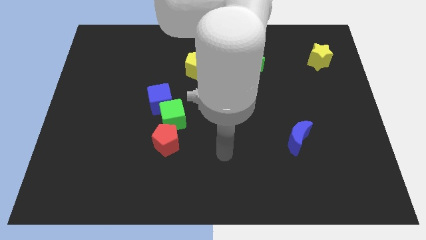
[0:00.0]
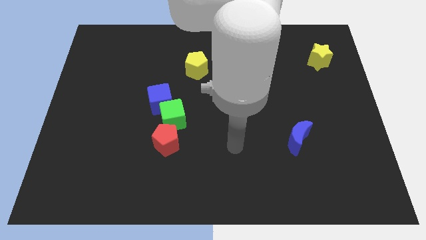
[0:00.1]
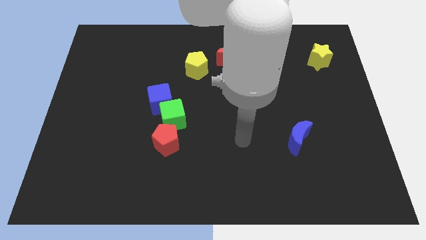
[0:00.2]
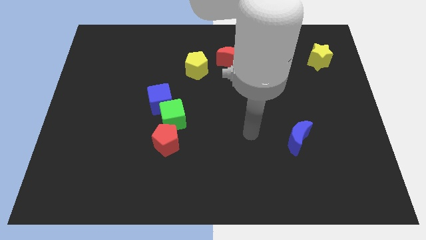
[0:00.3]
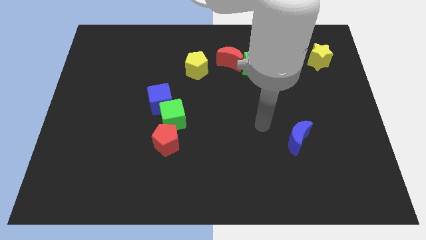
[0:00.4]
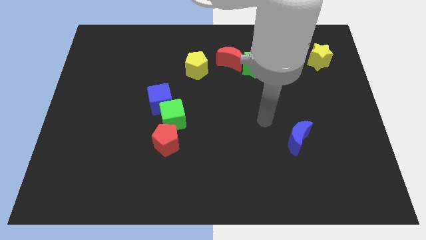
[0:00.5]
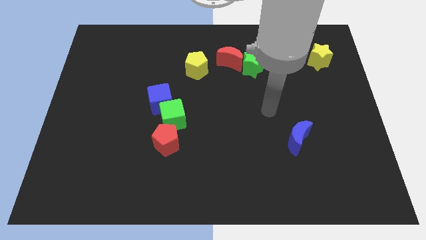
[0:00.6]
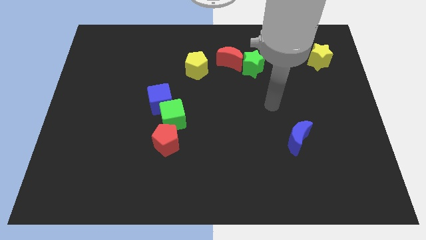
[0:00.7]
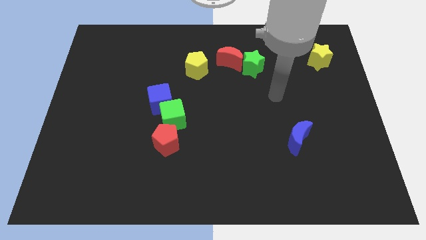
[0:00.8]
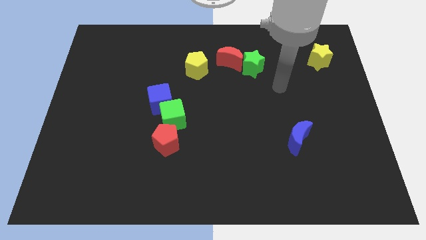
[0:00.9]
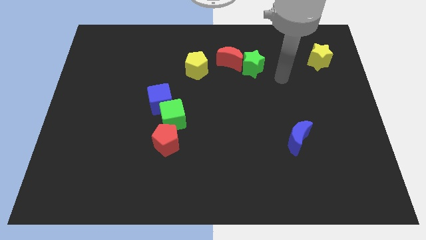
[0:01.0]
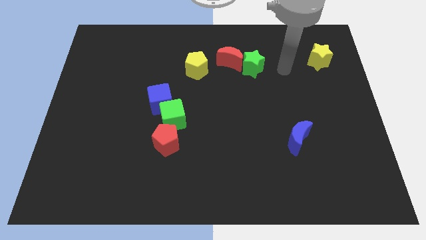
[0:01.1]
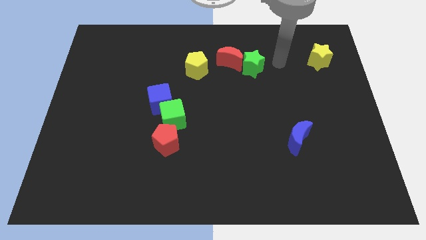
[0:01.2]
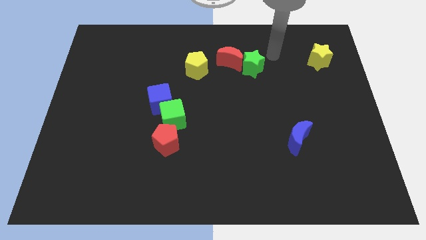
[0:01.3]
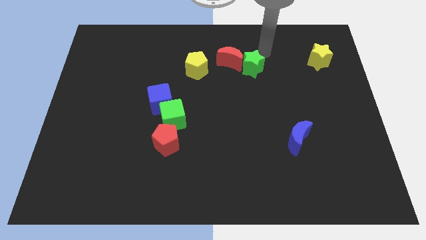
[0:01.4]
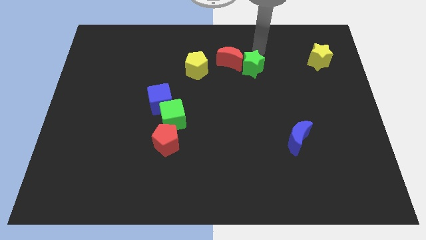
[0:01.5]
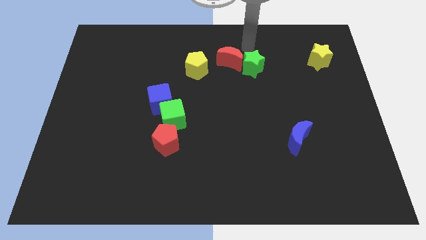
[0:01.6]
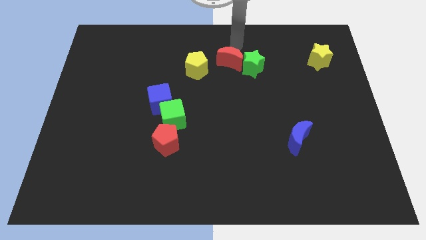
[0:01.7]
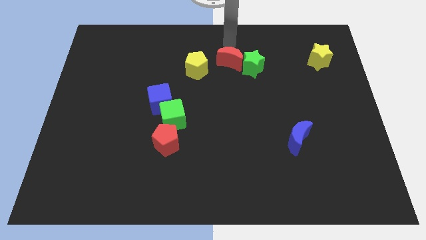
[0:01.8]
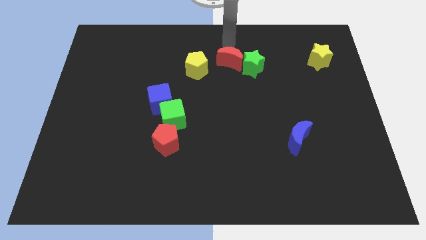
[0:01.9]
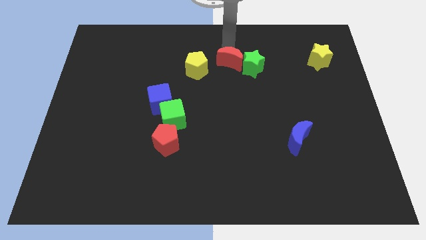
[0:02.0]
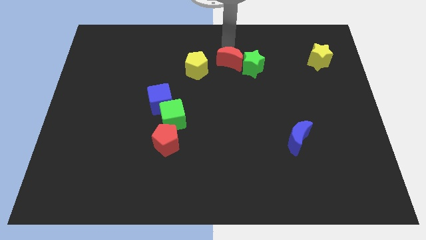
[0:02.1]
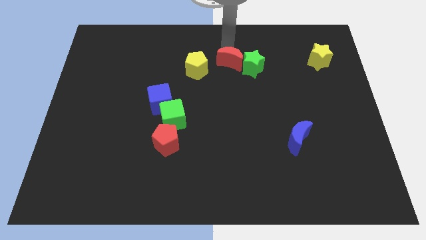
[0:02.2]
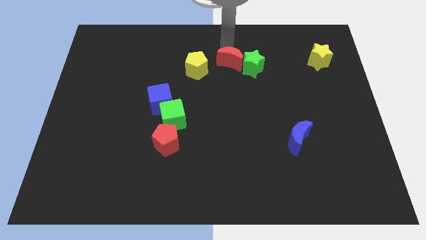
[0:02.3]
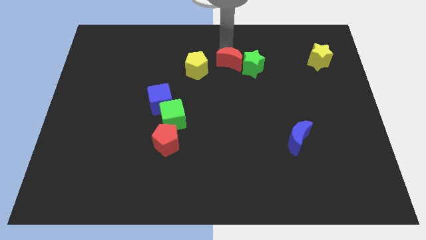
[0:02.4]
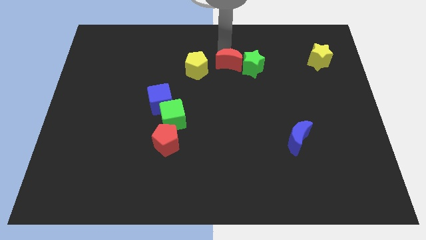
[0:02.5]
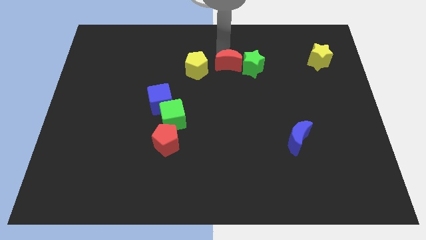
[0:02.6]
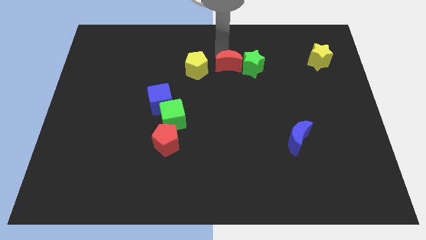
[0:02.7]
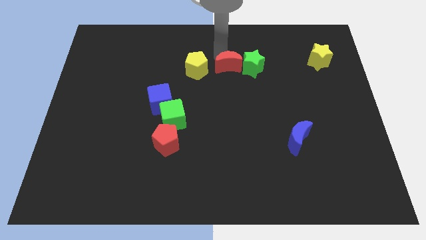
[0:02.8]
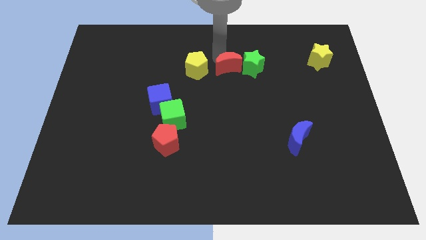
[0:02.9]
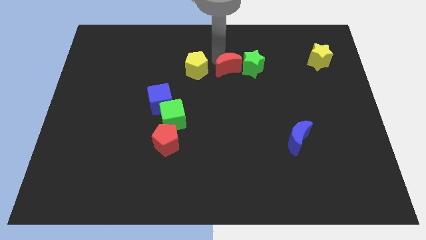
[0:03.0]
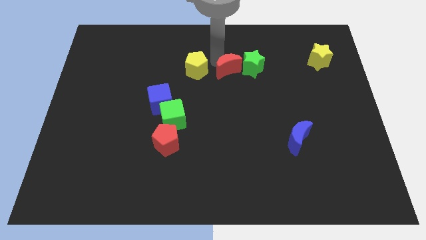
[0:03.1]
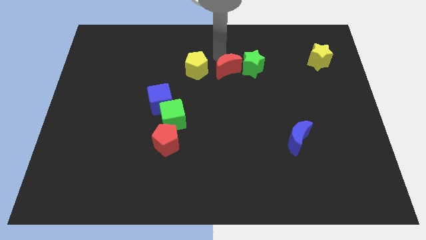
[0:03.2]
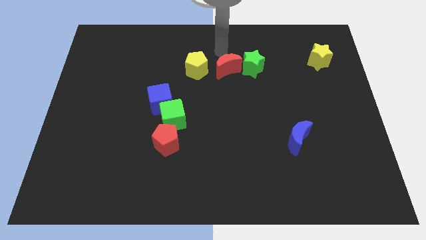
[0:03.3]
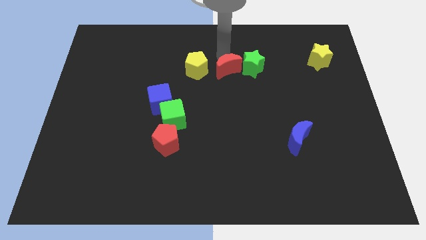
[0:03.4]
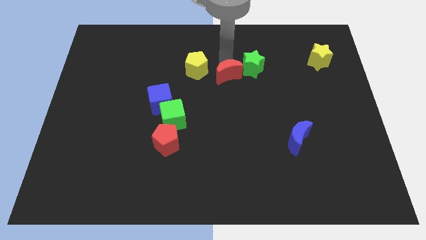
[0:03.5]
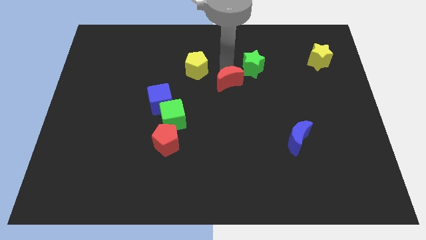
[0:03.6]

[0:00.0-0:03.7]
slightly push the red moon down

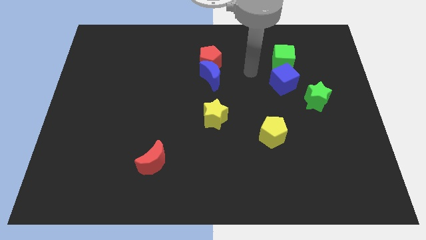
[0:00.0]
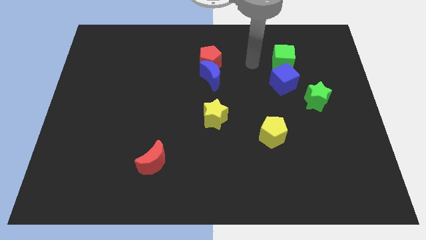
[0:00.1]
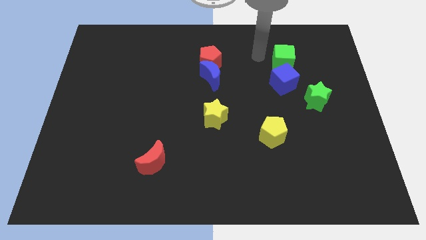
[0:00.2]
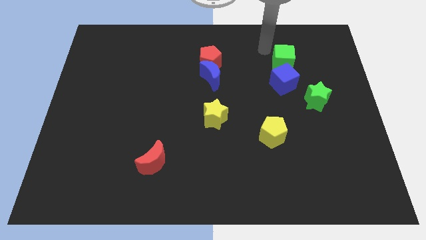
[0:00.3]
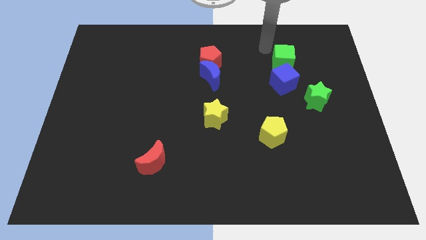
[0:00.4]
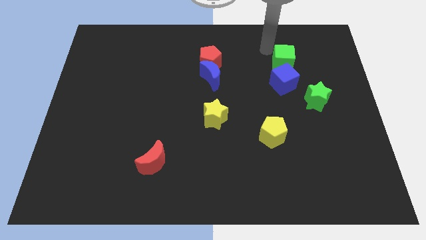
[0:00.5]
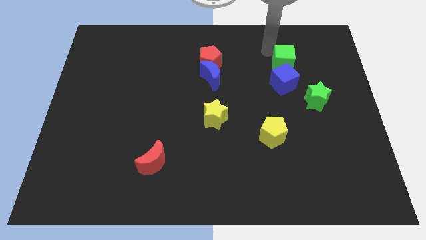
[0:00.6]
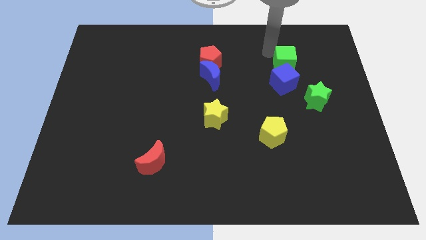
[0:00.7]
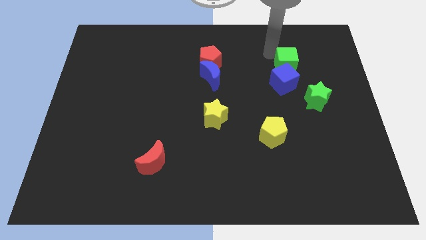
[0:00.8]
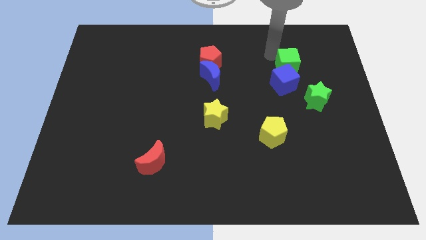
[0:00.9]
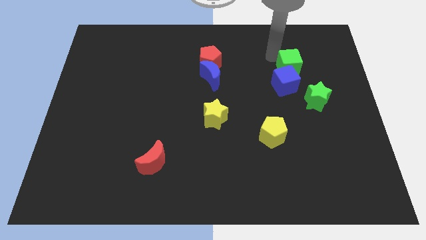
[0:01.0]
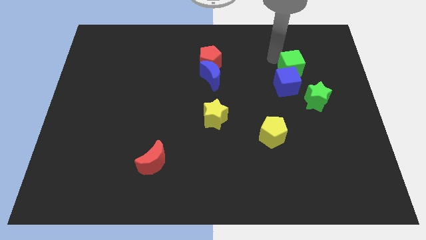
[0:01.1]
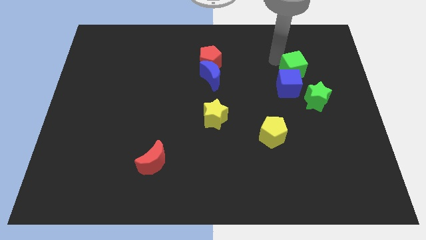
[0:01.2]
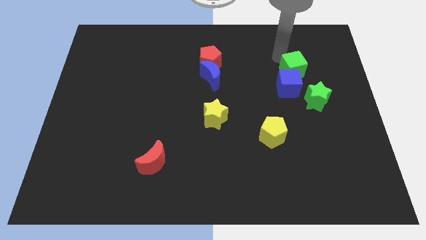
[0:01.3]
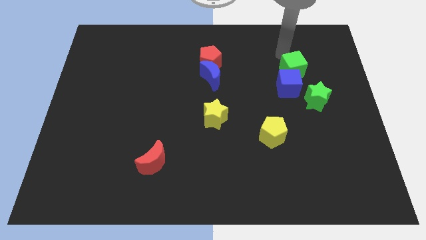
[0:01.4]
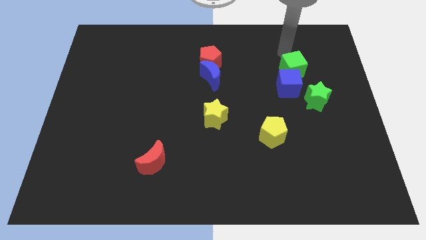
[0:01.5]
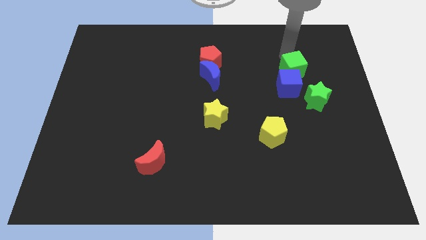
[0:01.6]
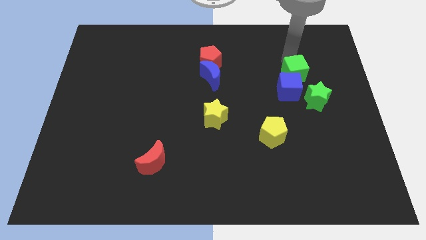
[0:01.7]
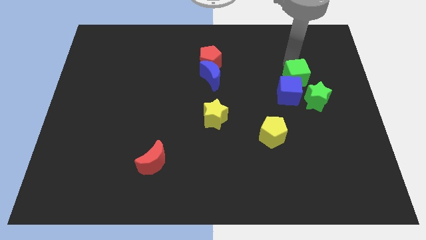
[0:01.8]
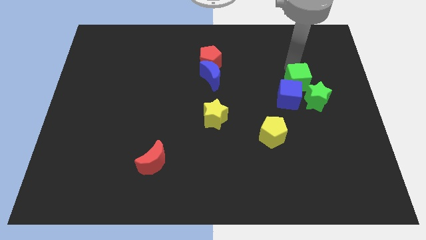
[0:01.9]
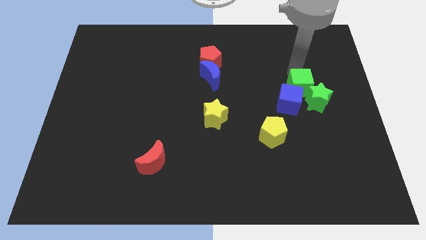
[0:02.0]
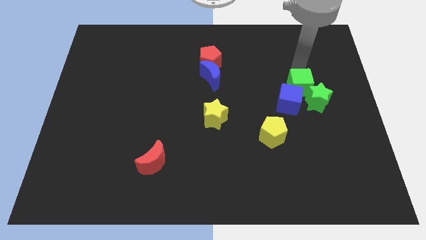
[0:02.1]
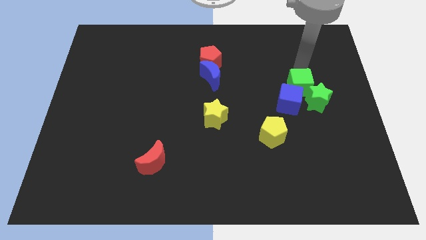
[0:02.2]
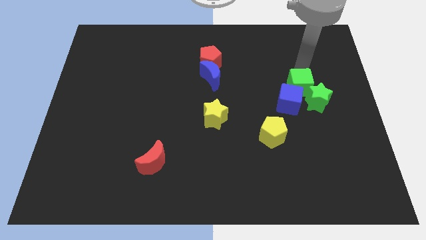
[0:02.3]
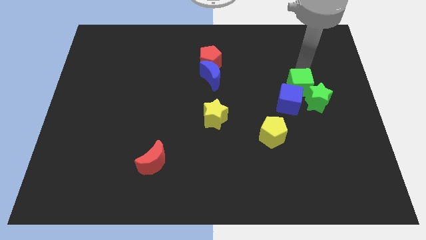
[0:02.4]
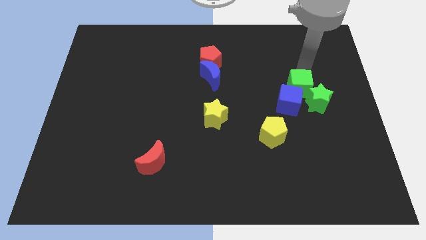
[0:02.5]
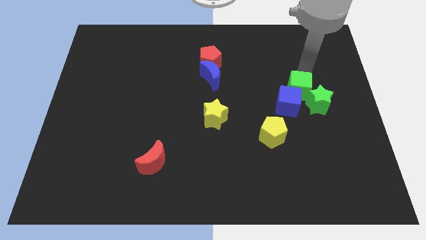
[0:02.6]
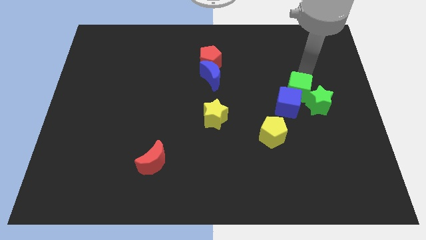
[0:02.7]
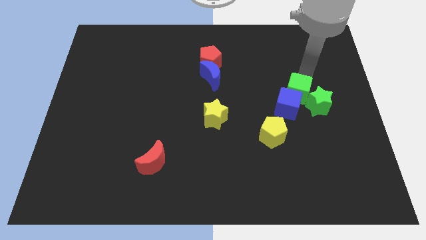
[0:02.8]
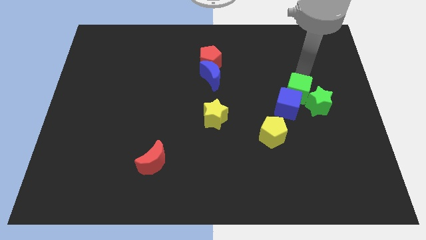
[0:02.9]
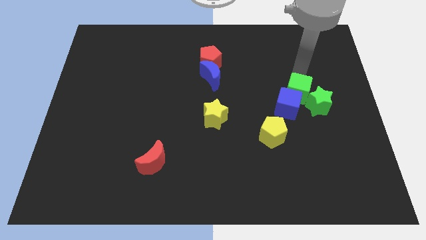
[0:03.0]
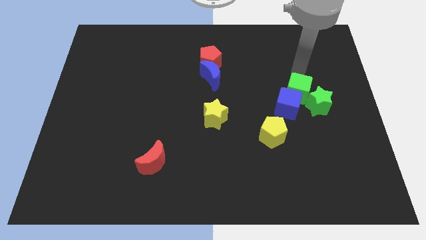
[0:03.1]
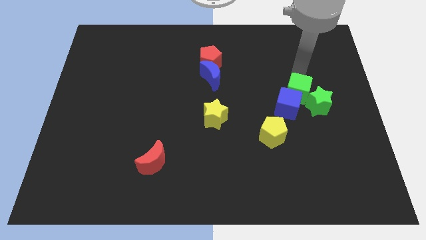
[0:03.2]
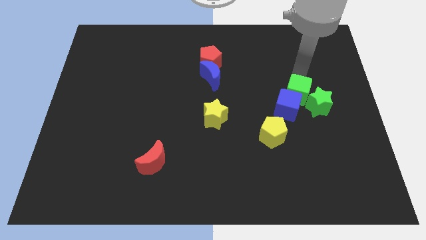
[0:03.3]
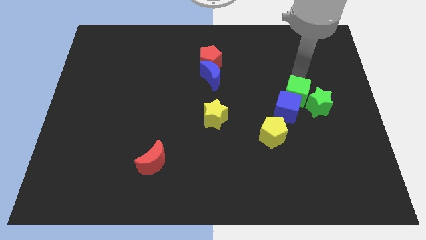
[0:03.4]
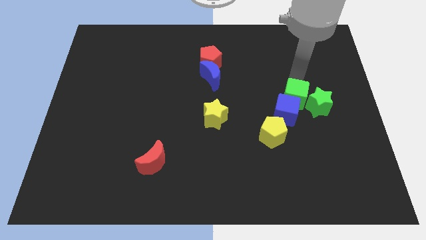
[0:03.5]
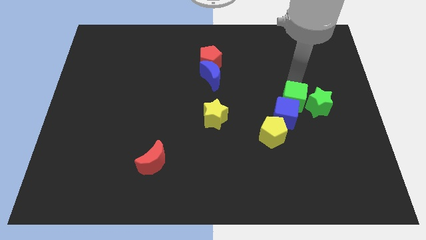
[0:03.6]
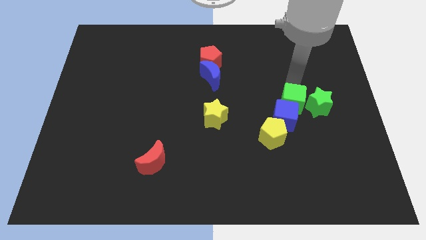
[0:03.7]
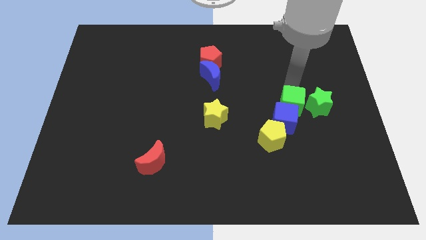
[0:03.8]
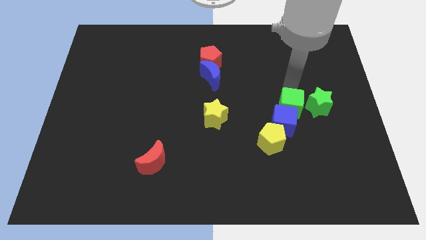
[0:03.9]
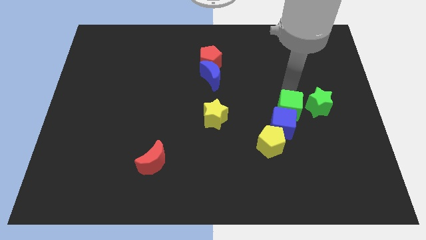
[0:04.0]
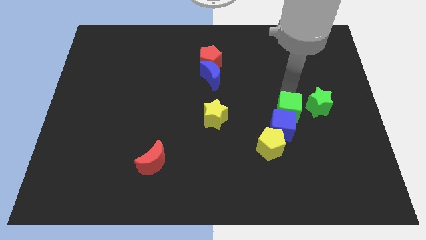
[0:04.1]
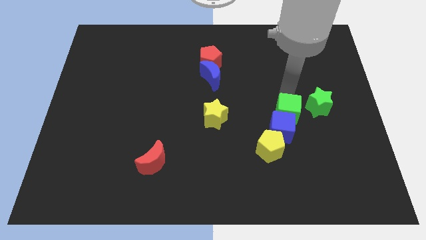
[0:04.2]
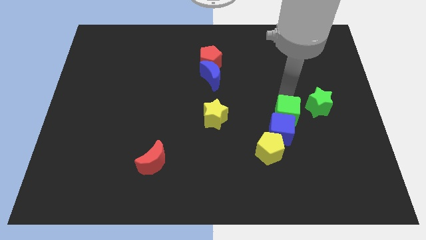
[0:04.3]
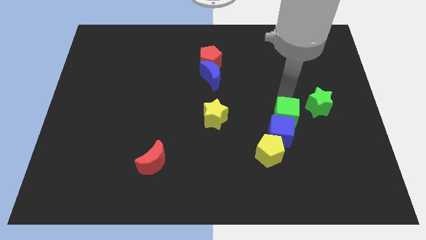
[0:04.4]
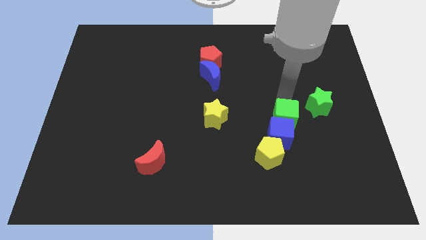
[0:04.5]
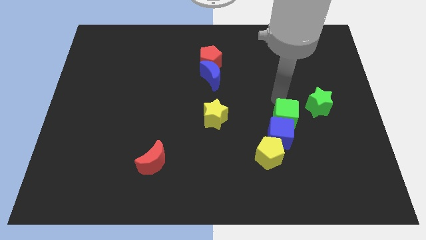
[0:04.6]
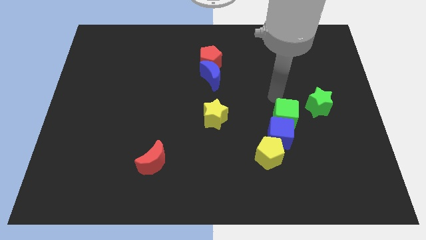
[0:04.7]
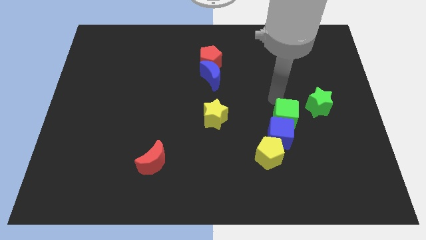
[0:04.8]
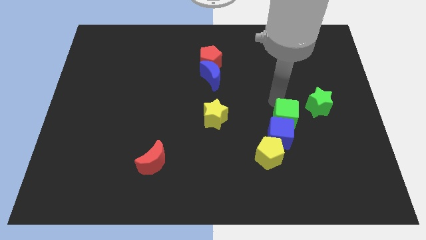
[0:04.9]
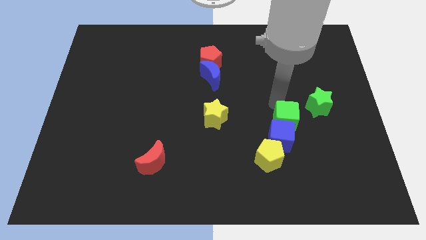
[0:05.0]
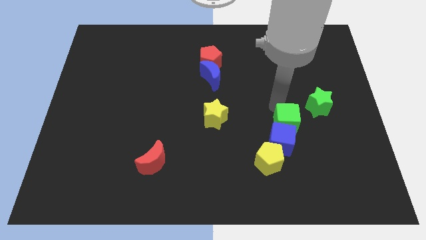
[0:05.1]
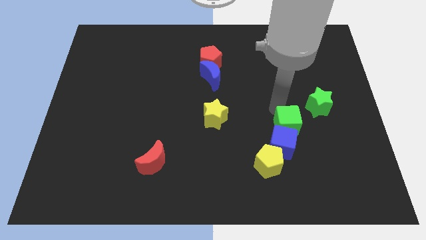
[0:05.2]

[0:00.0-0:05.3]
push the green cube down
